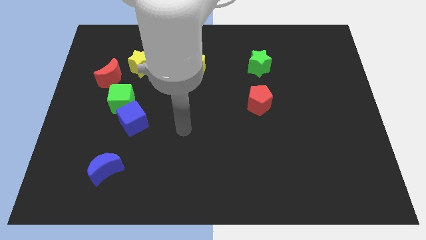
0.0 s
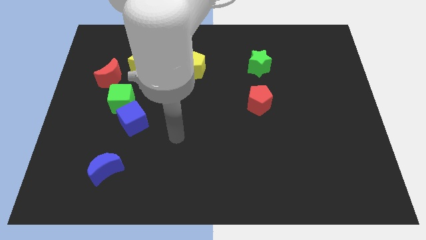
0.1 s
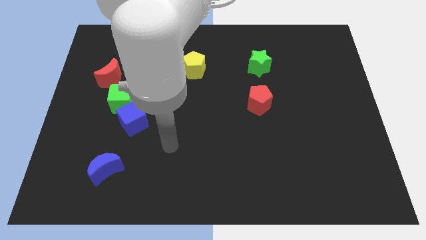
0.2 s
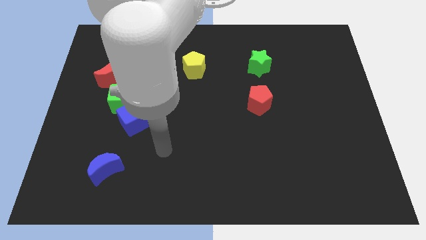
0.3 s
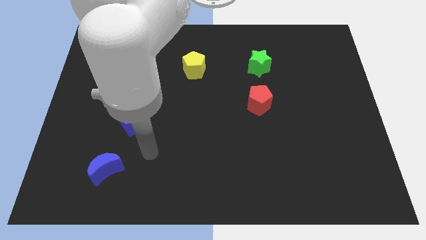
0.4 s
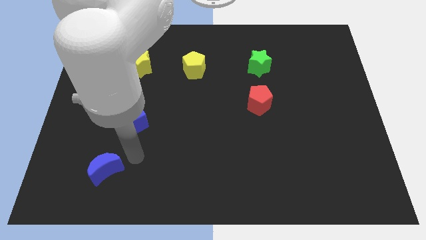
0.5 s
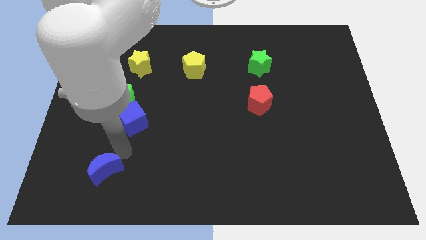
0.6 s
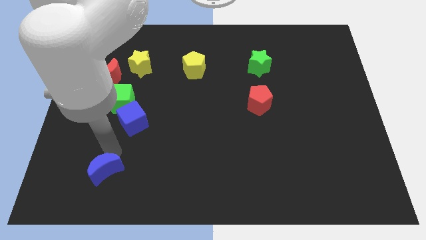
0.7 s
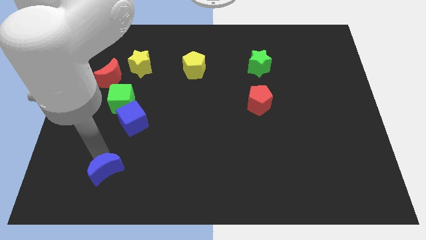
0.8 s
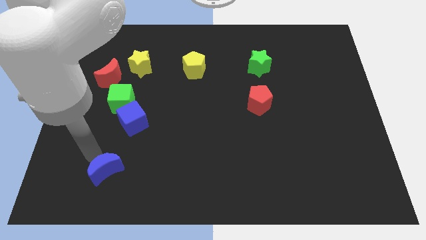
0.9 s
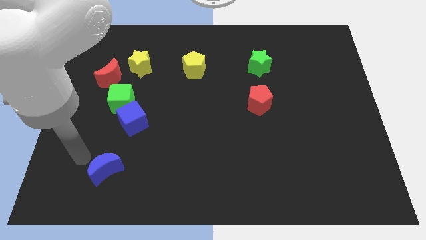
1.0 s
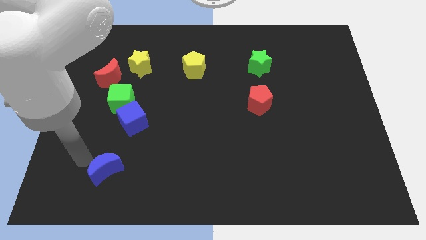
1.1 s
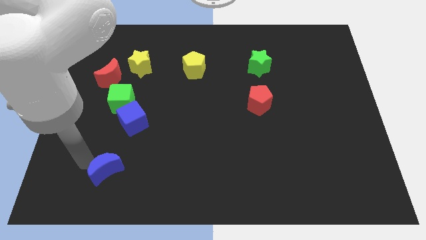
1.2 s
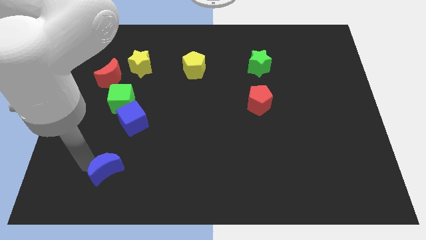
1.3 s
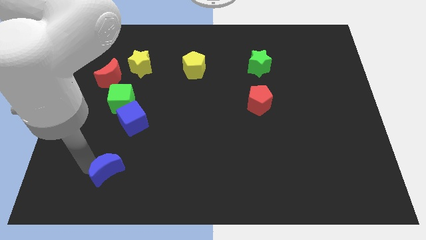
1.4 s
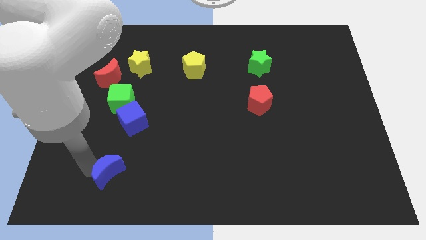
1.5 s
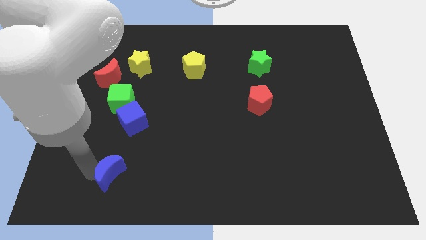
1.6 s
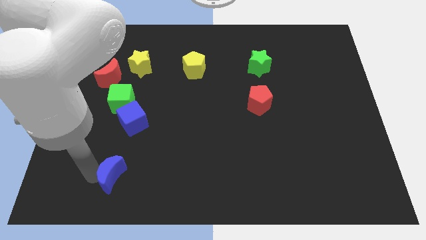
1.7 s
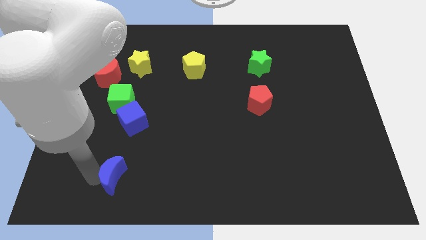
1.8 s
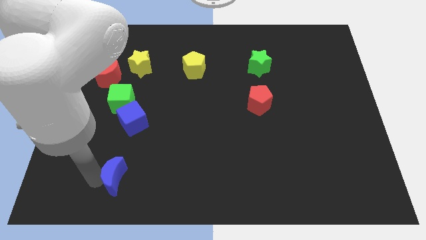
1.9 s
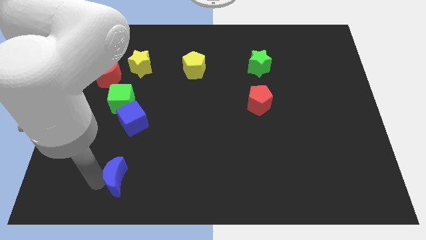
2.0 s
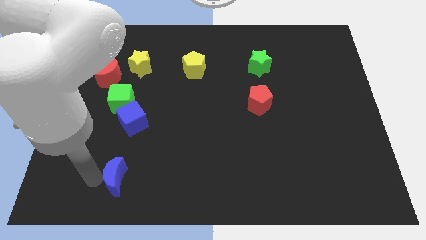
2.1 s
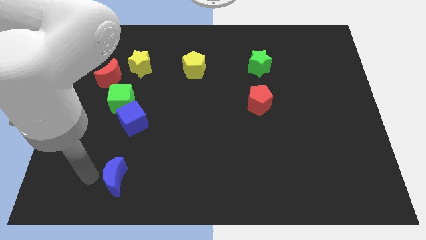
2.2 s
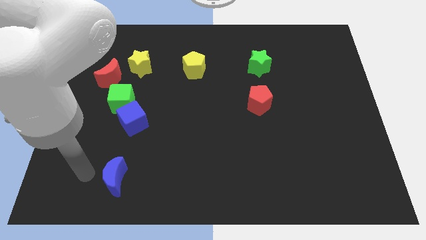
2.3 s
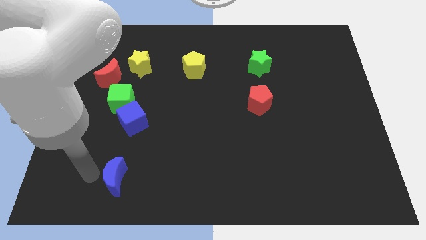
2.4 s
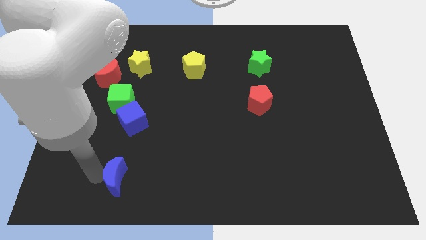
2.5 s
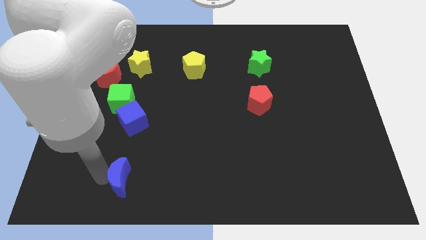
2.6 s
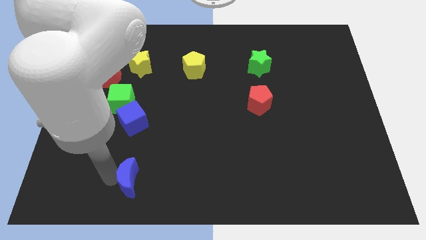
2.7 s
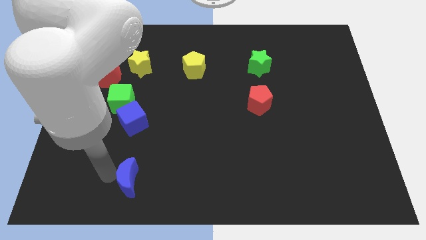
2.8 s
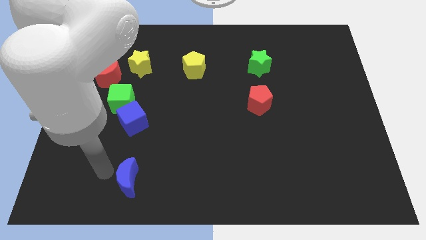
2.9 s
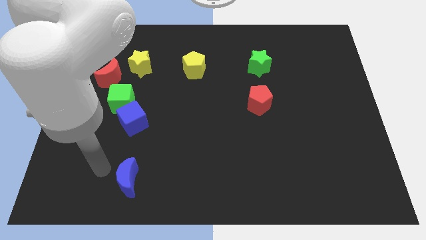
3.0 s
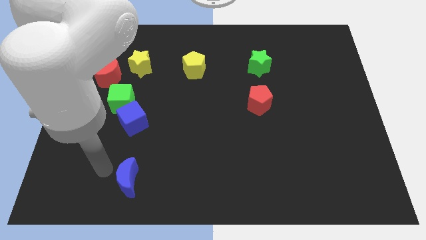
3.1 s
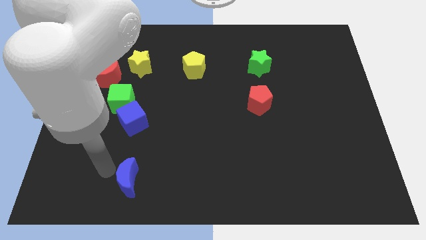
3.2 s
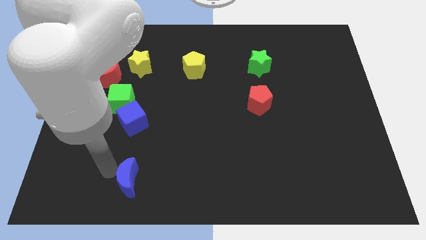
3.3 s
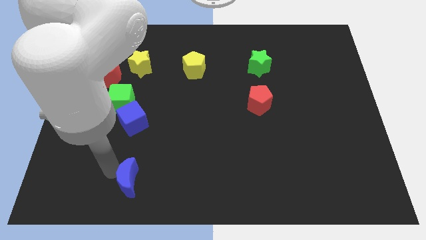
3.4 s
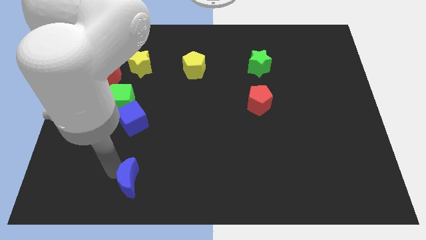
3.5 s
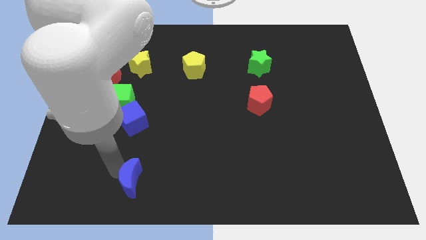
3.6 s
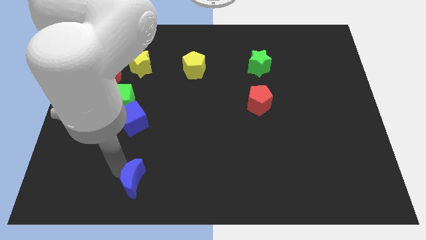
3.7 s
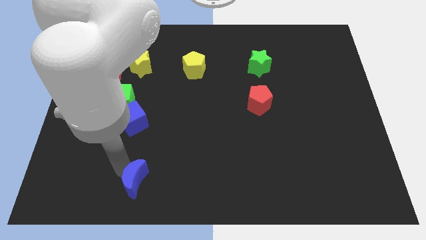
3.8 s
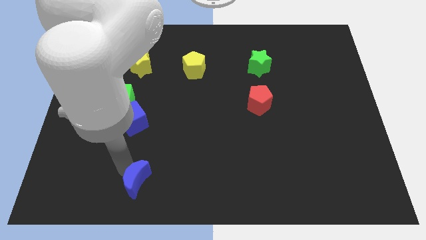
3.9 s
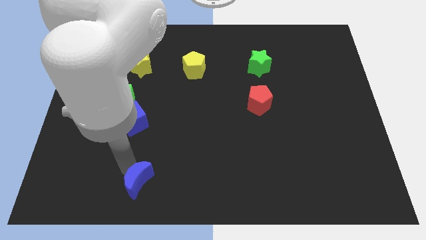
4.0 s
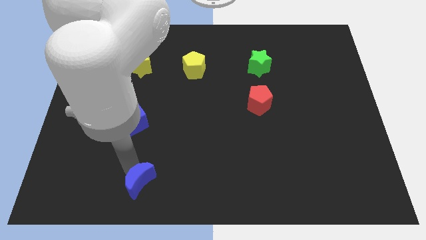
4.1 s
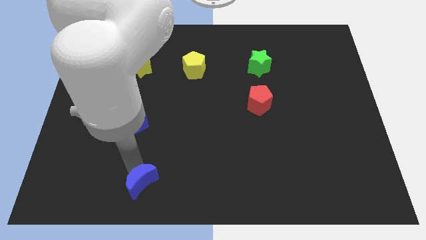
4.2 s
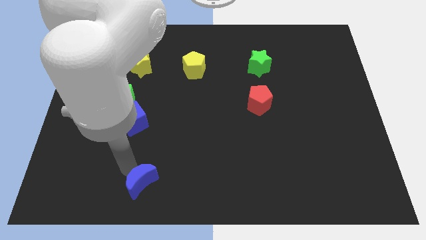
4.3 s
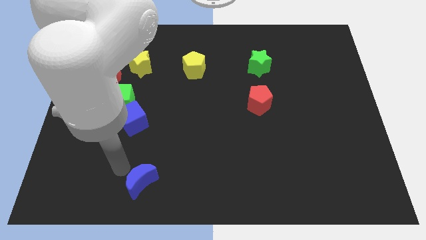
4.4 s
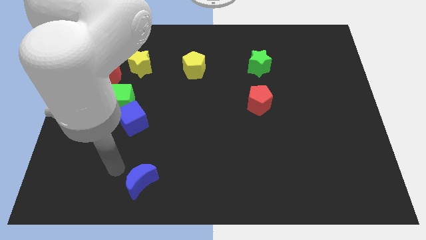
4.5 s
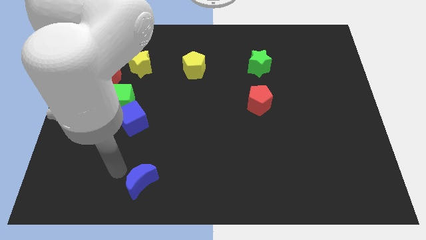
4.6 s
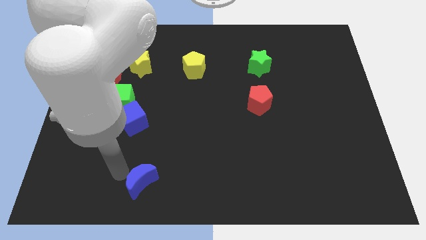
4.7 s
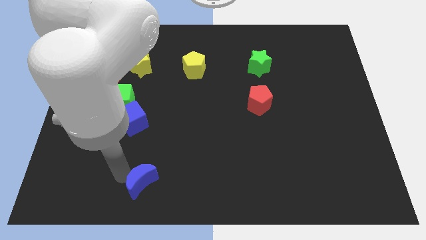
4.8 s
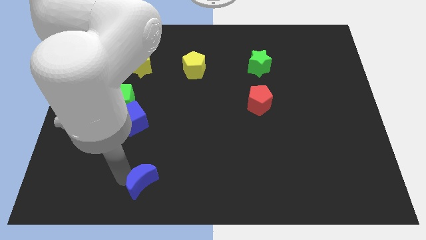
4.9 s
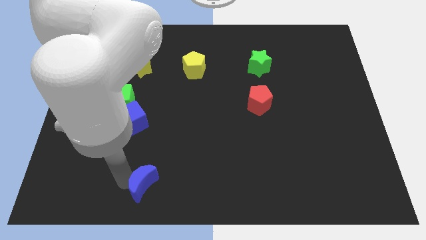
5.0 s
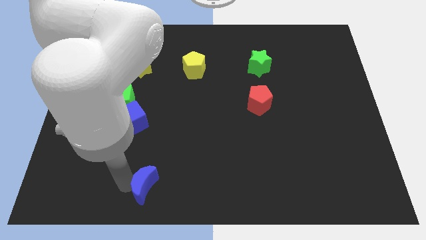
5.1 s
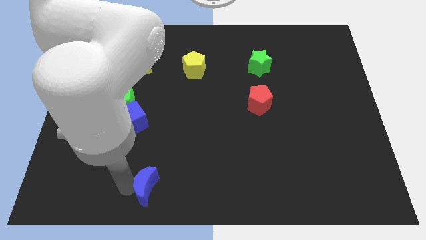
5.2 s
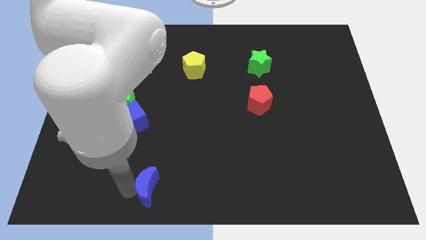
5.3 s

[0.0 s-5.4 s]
put the blue moon to the bottom

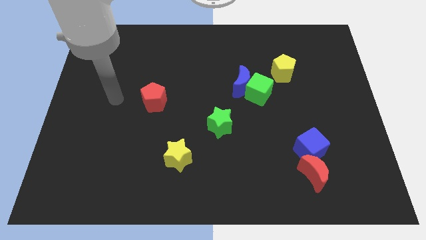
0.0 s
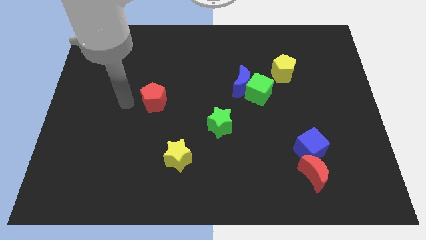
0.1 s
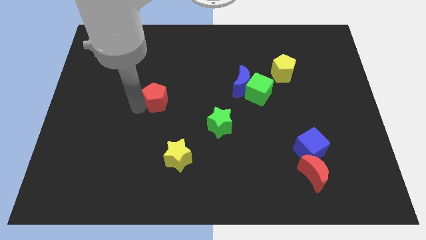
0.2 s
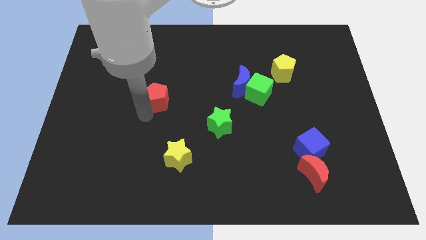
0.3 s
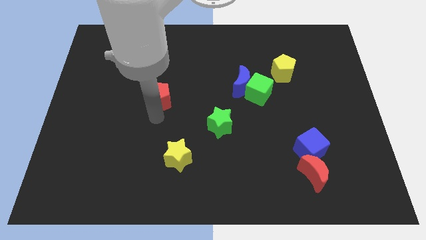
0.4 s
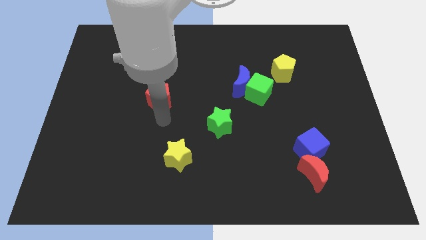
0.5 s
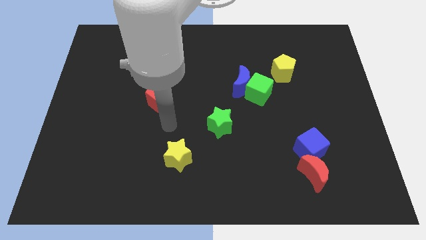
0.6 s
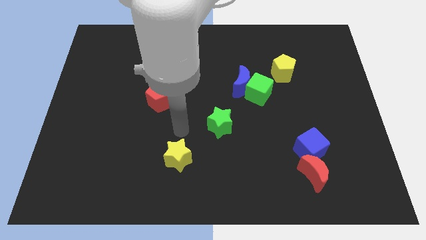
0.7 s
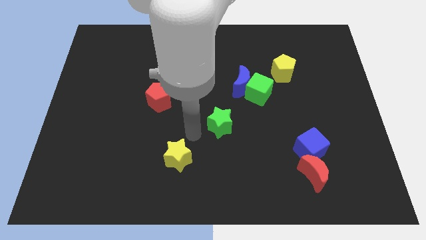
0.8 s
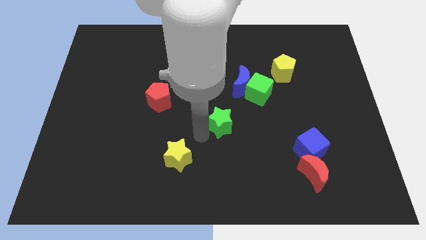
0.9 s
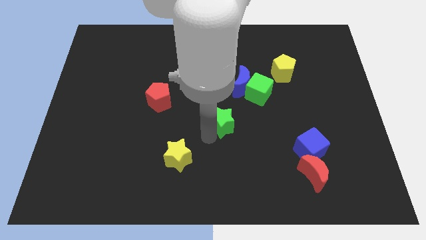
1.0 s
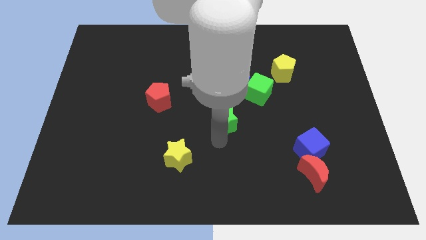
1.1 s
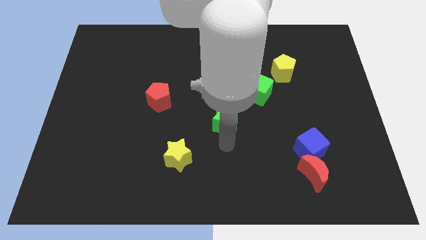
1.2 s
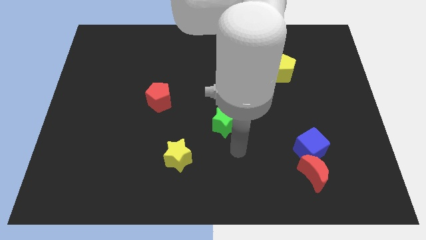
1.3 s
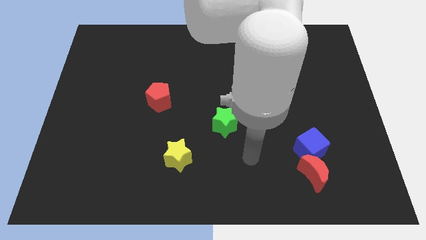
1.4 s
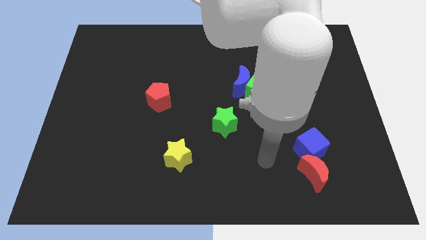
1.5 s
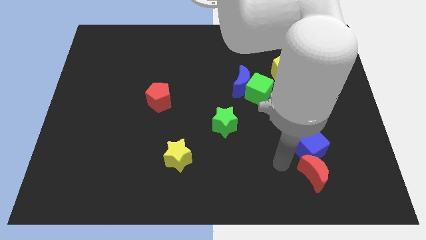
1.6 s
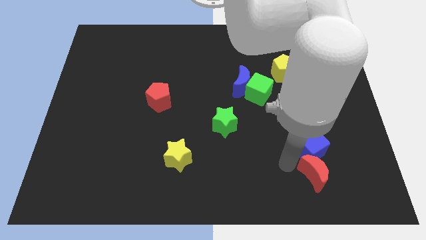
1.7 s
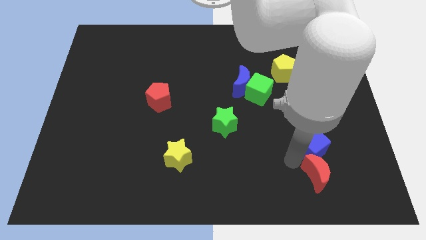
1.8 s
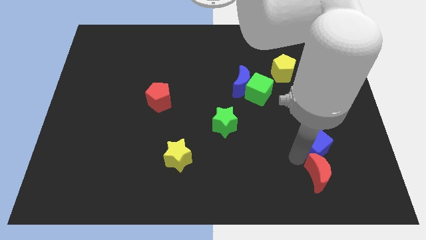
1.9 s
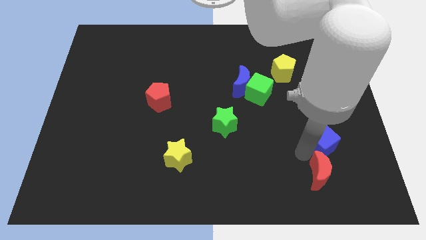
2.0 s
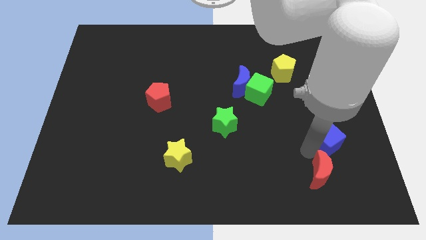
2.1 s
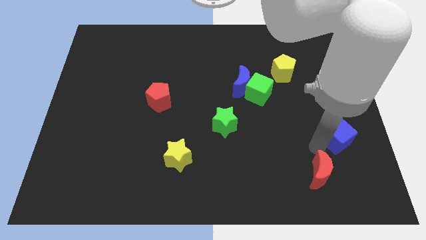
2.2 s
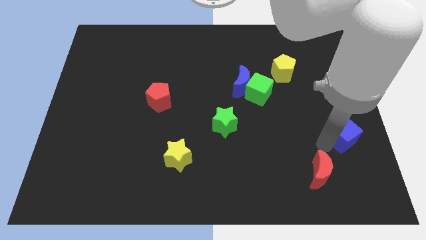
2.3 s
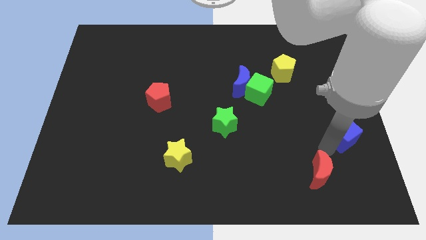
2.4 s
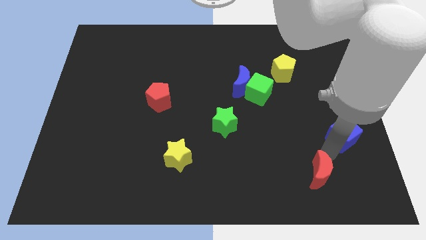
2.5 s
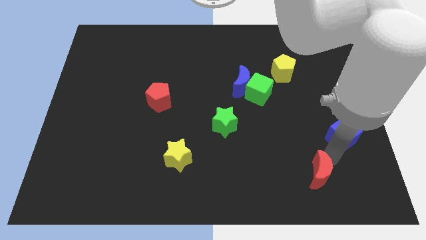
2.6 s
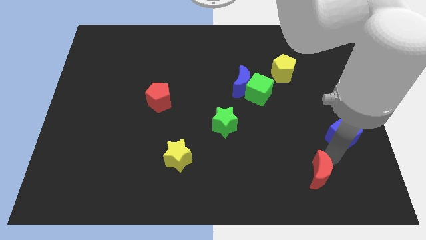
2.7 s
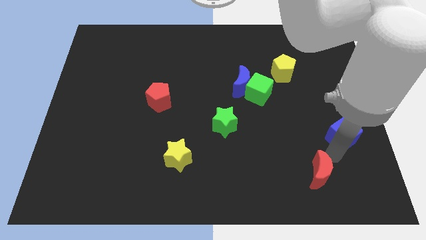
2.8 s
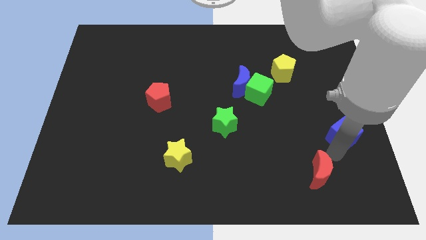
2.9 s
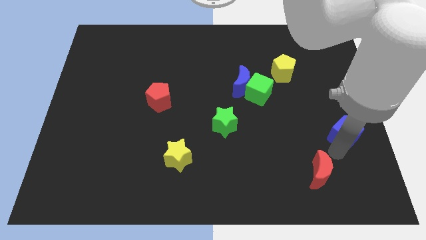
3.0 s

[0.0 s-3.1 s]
put the blue cube to the right side
